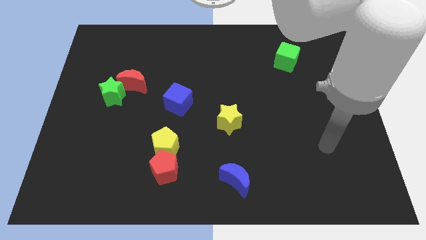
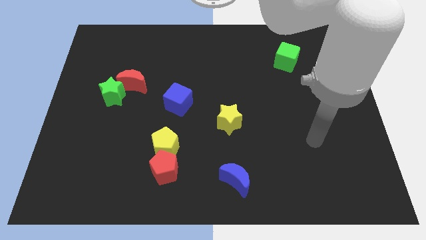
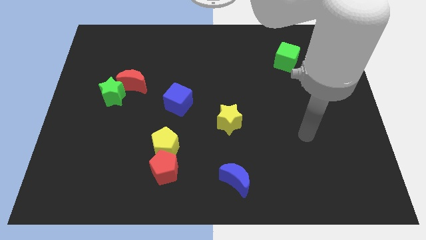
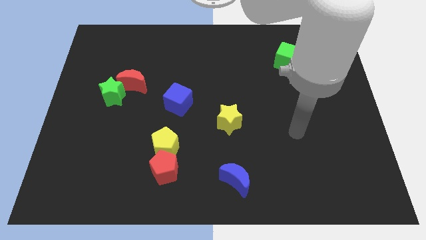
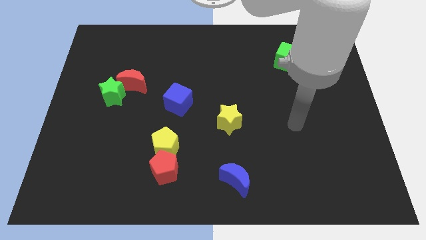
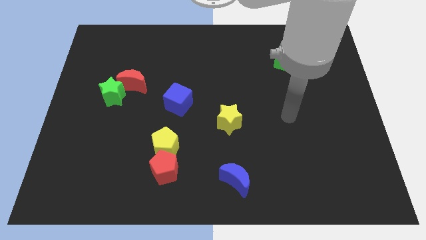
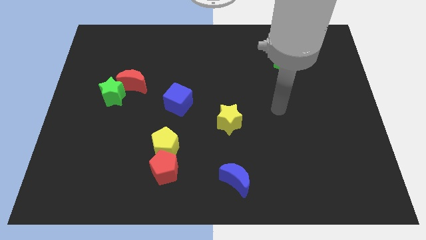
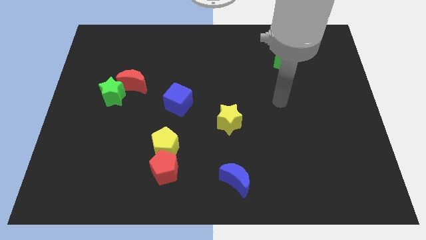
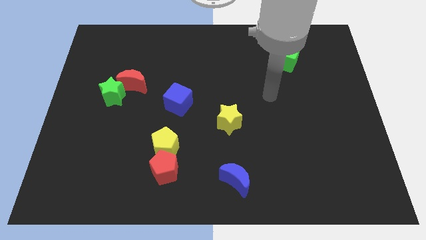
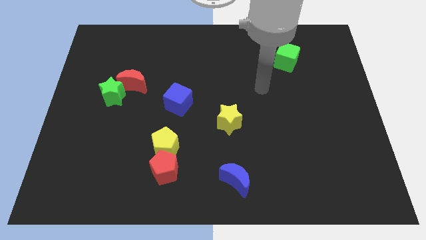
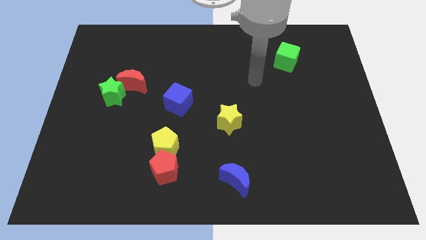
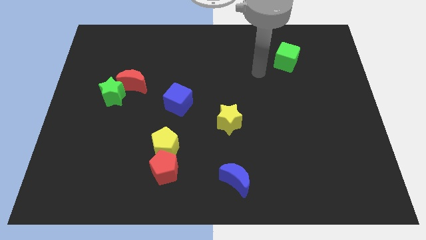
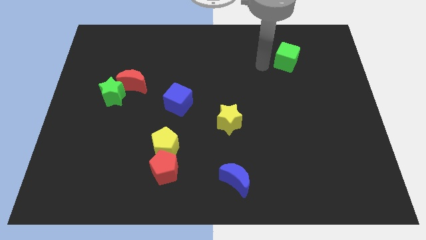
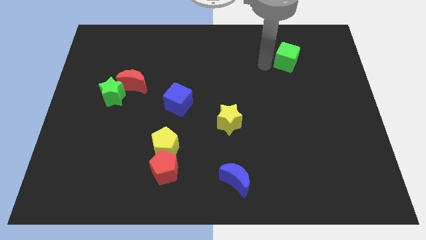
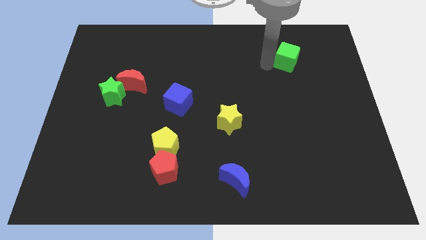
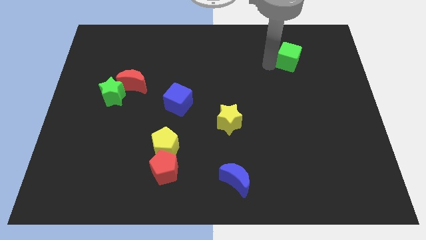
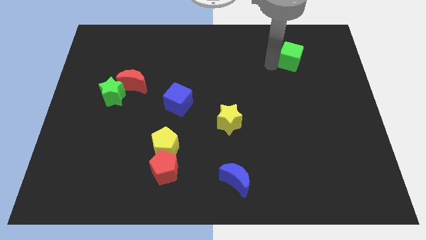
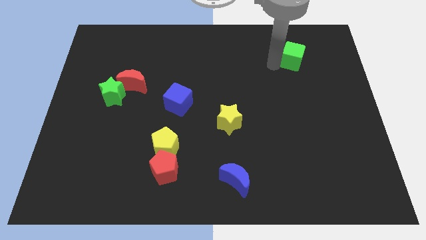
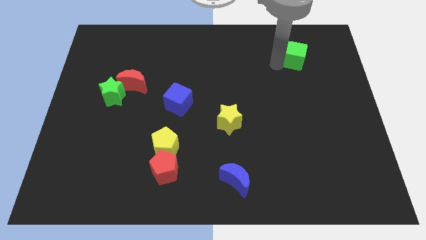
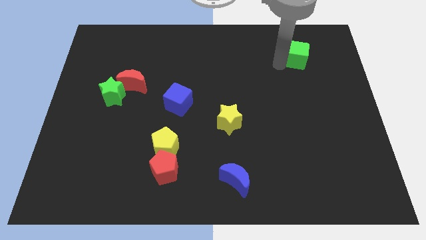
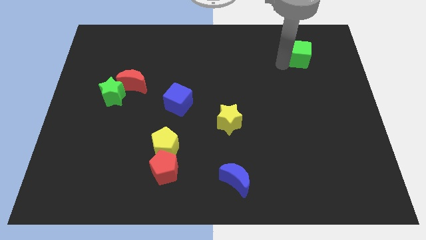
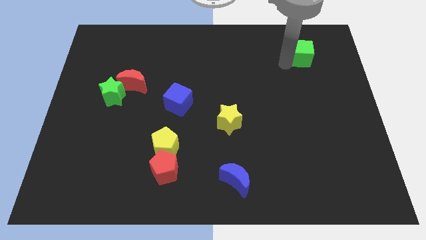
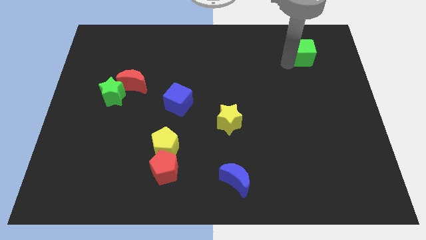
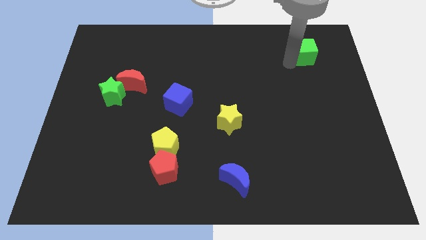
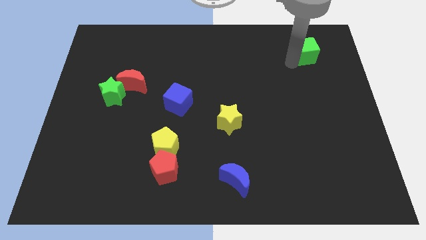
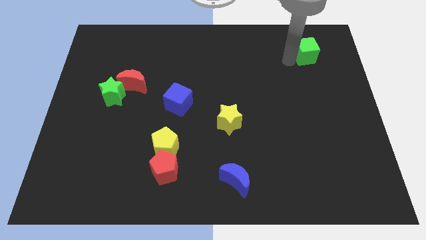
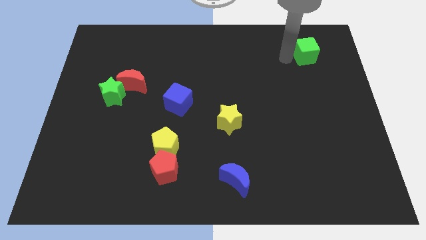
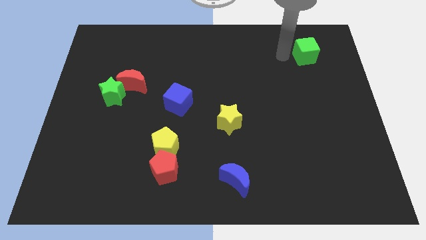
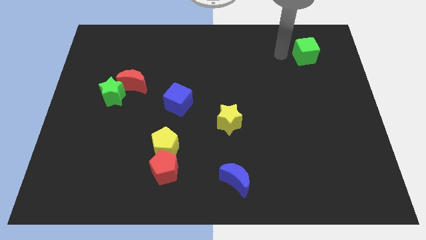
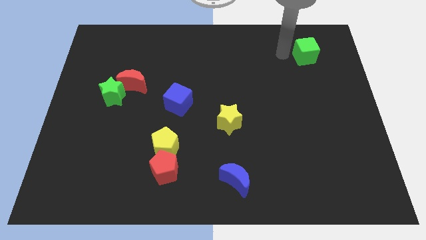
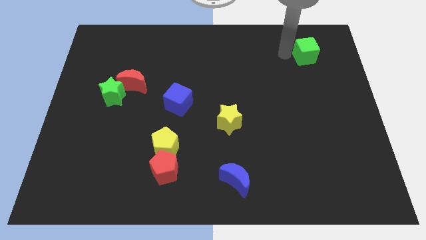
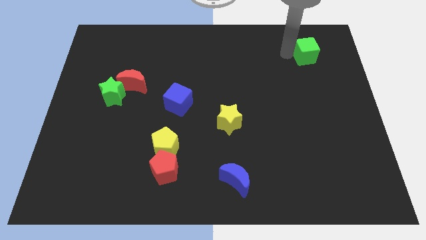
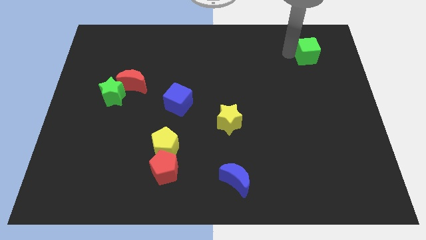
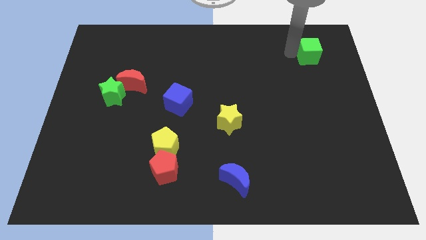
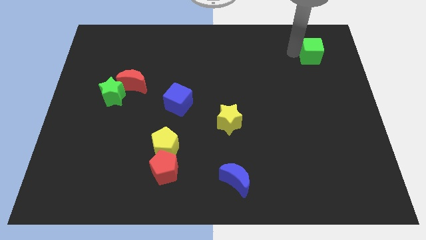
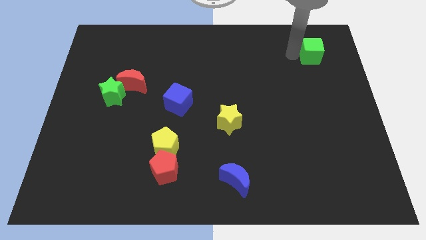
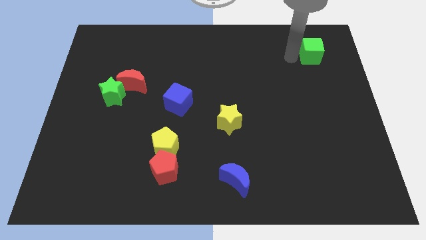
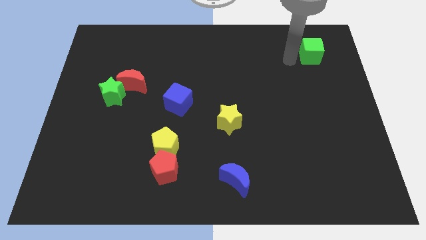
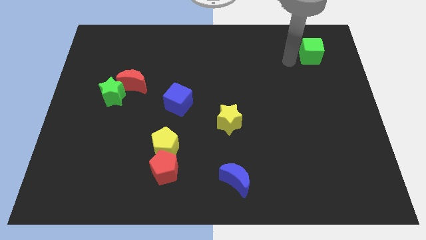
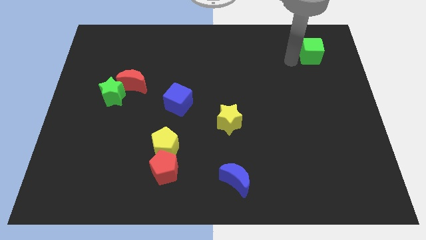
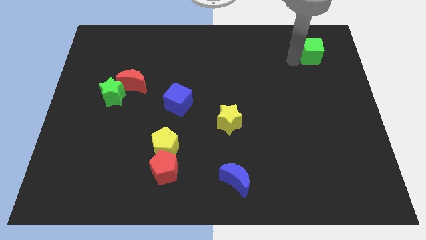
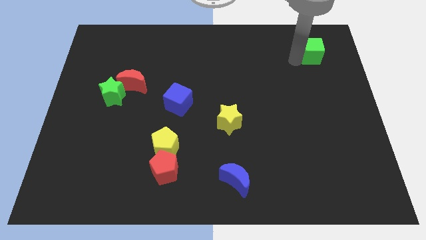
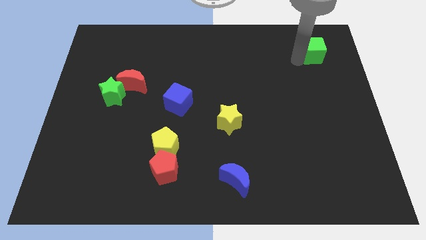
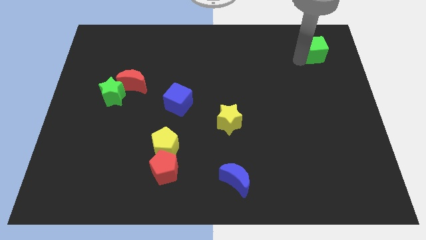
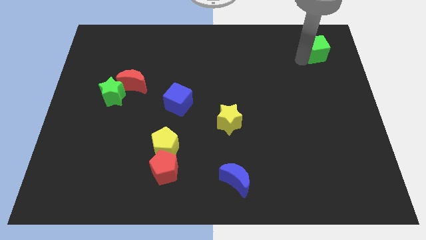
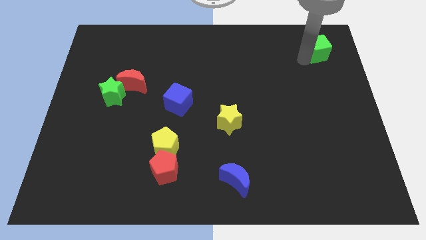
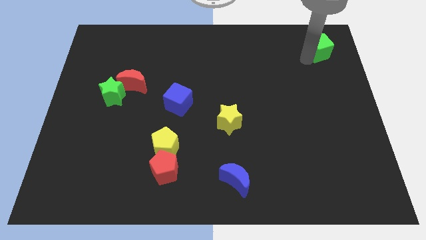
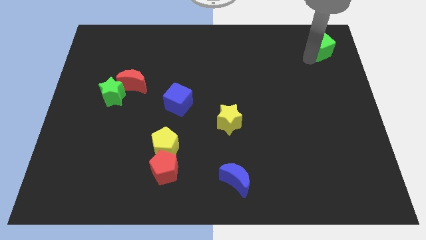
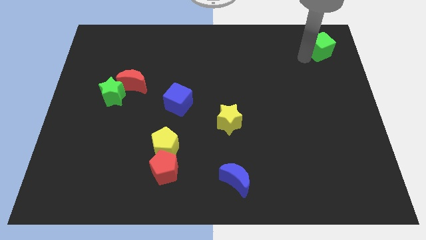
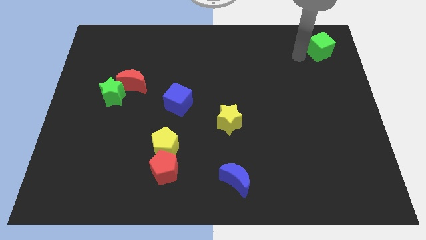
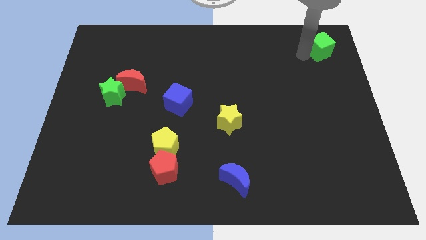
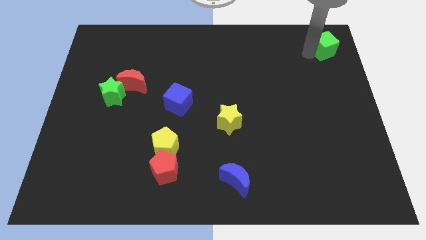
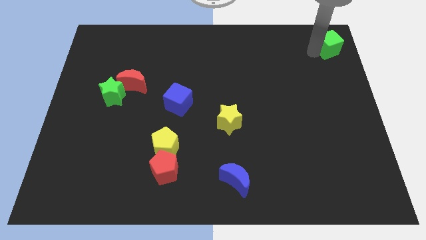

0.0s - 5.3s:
slide the green cube to the upper right corner
